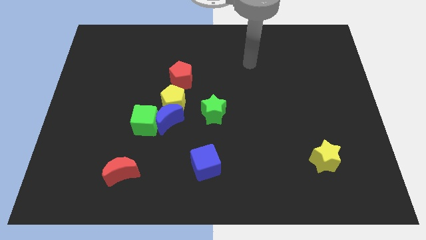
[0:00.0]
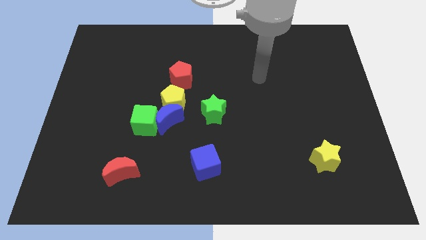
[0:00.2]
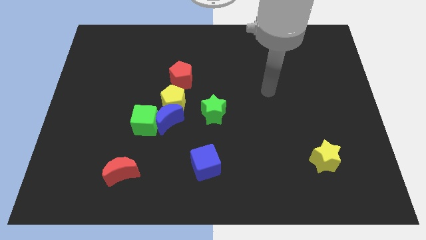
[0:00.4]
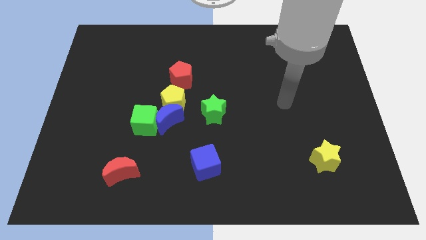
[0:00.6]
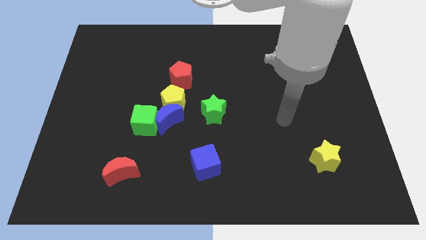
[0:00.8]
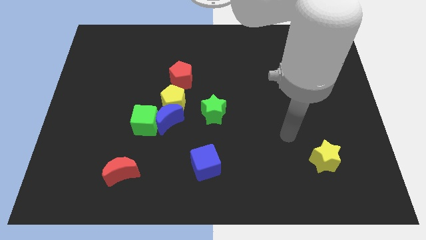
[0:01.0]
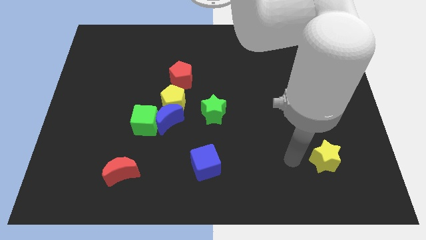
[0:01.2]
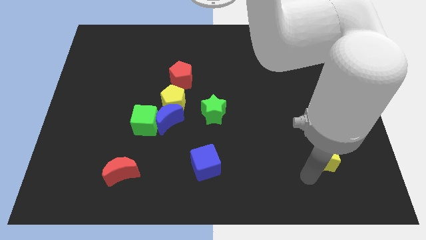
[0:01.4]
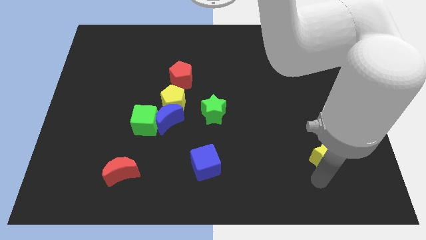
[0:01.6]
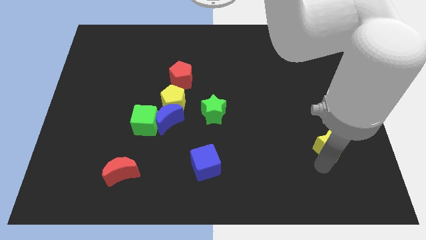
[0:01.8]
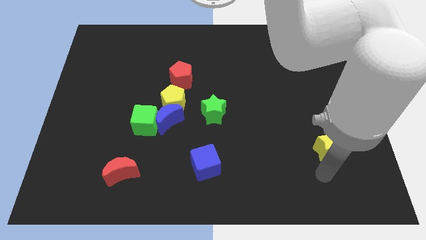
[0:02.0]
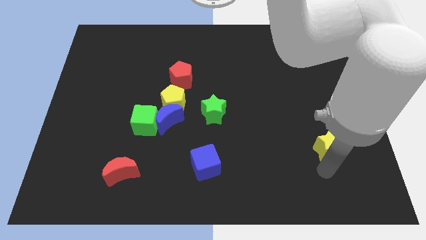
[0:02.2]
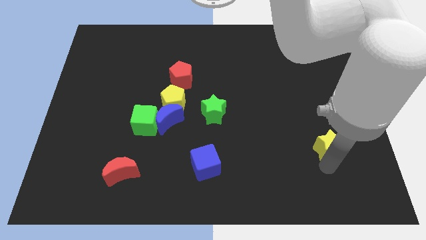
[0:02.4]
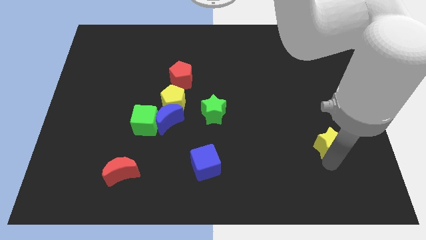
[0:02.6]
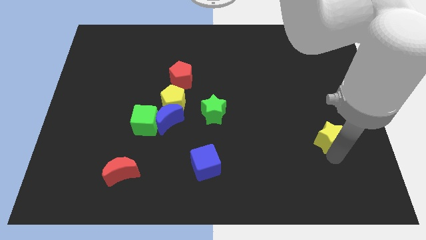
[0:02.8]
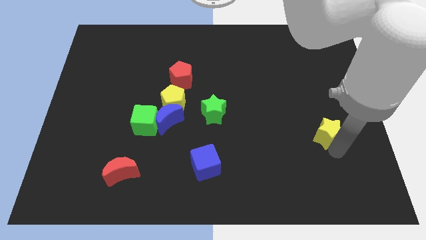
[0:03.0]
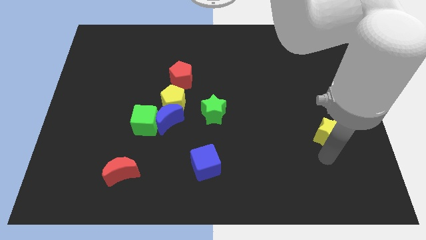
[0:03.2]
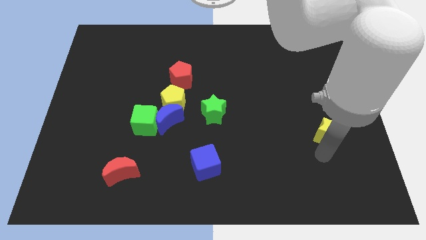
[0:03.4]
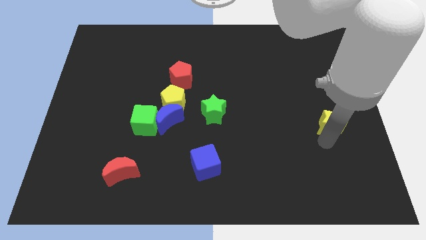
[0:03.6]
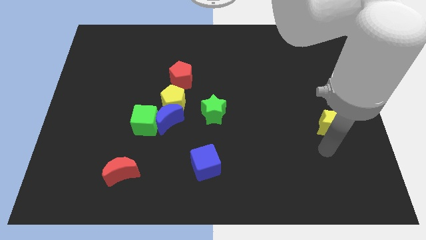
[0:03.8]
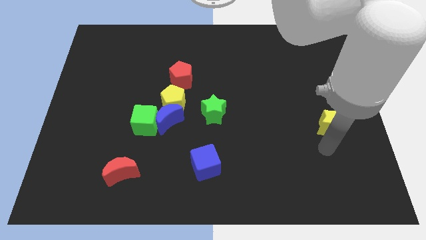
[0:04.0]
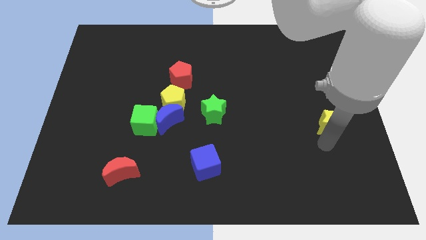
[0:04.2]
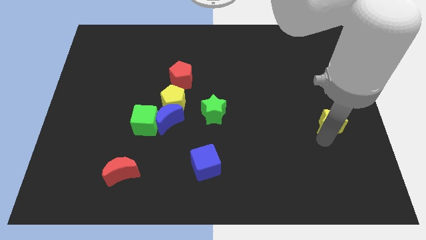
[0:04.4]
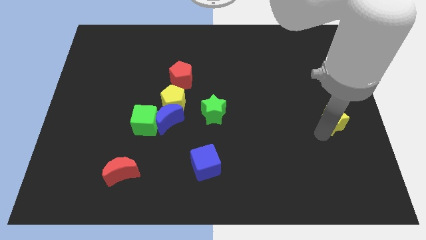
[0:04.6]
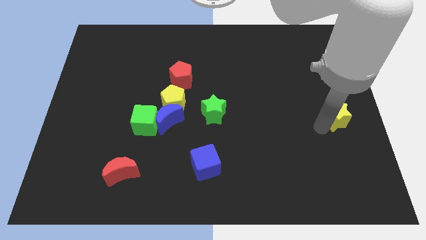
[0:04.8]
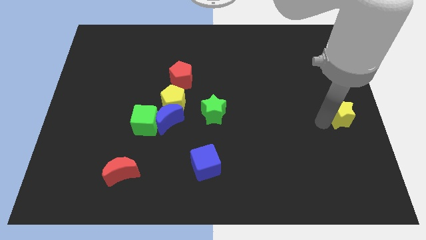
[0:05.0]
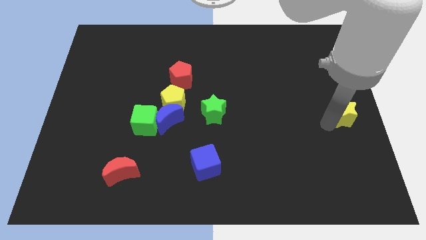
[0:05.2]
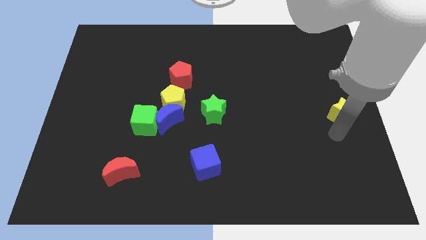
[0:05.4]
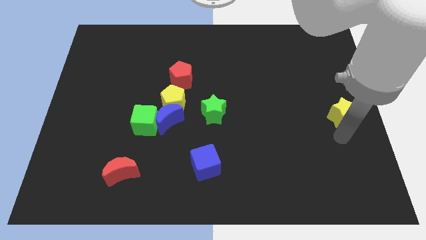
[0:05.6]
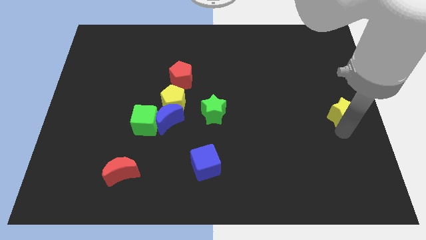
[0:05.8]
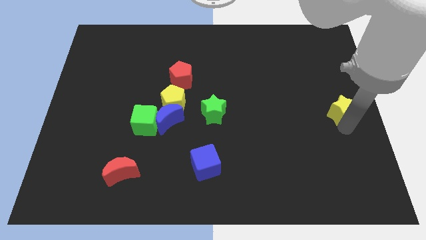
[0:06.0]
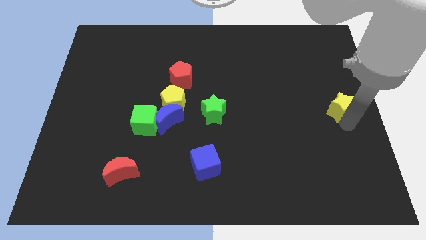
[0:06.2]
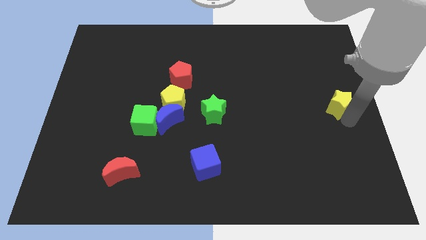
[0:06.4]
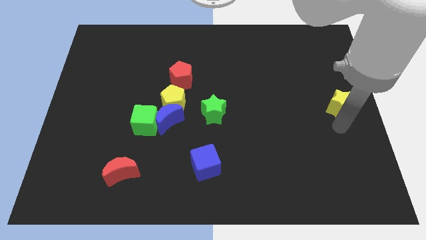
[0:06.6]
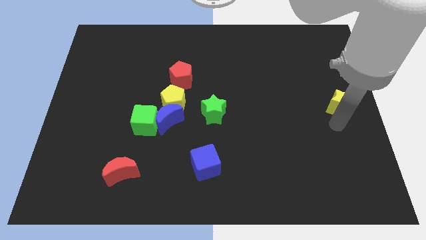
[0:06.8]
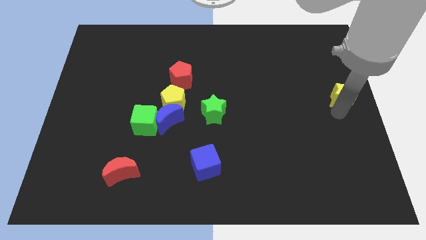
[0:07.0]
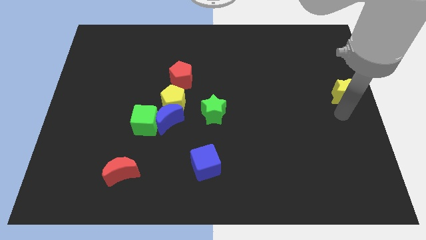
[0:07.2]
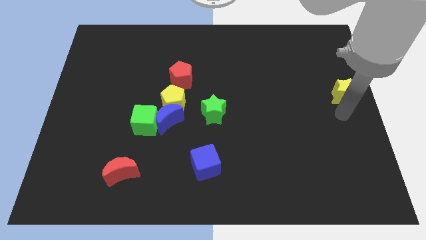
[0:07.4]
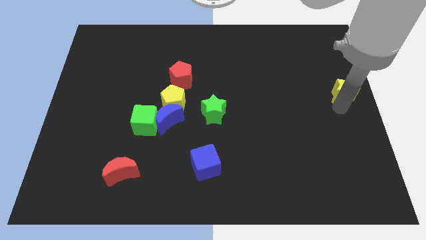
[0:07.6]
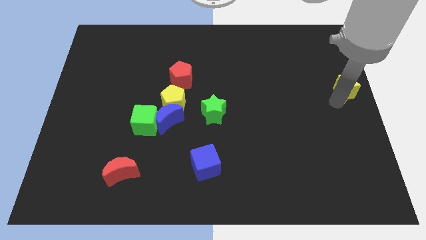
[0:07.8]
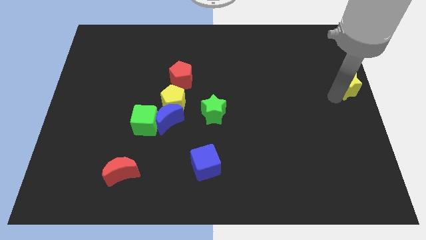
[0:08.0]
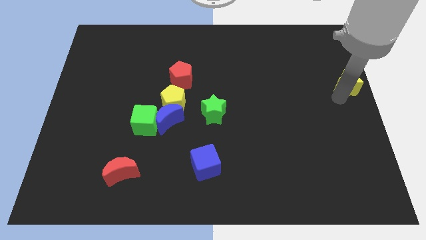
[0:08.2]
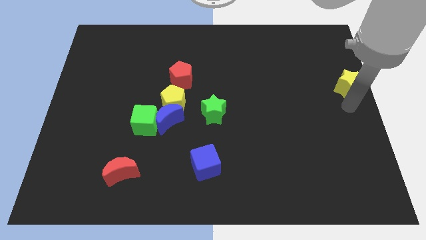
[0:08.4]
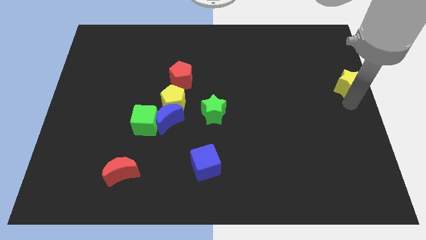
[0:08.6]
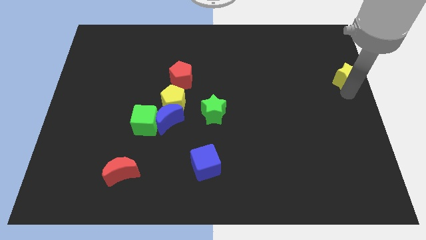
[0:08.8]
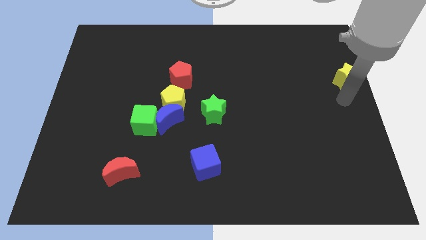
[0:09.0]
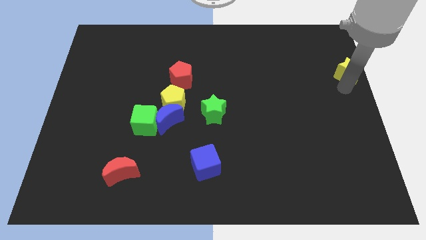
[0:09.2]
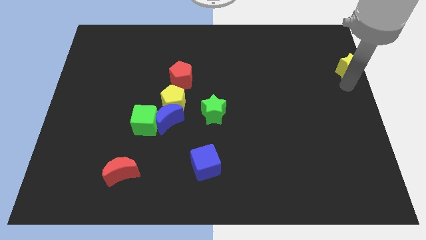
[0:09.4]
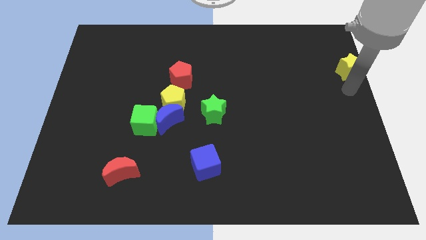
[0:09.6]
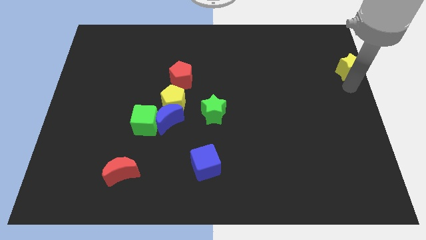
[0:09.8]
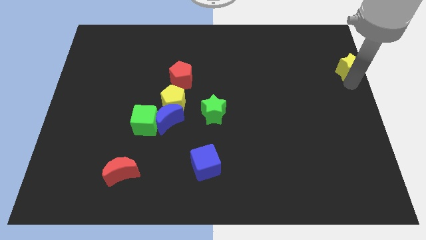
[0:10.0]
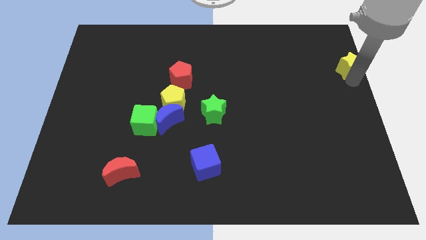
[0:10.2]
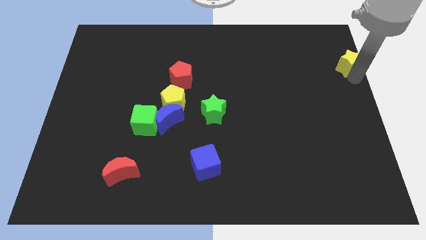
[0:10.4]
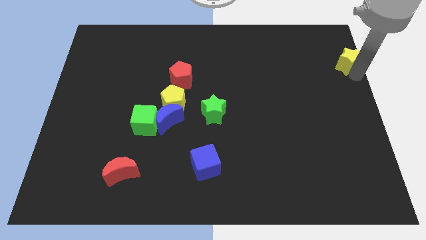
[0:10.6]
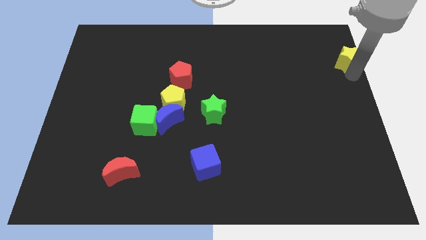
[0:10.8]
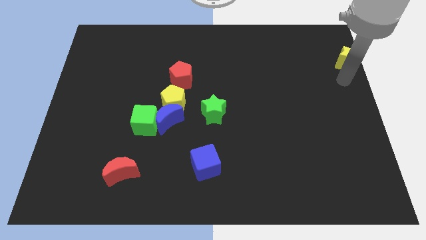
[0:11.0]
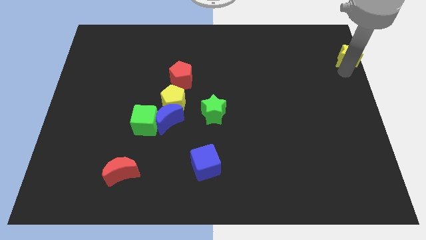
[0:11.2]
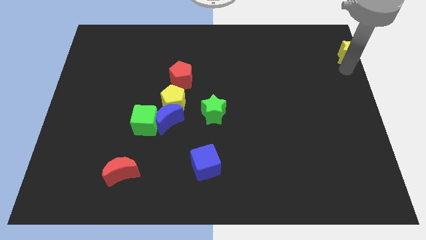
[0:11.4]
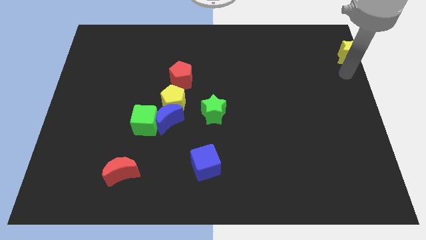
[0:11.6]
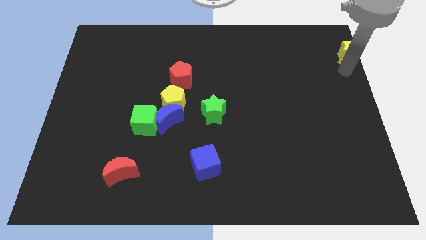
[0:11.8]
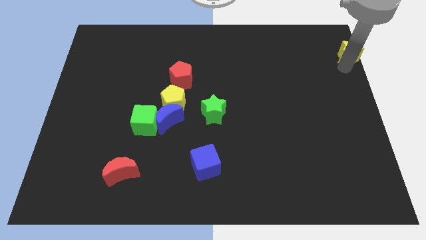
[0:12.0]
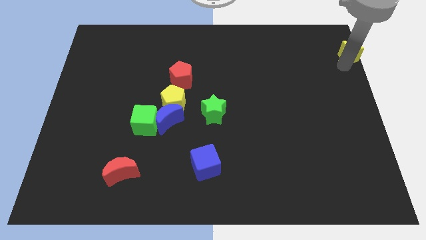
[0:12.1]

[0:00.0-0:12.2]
slide the yellow star to the top right

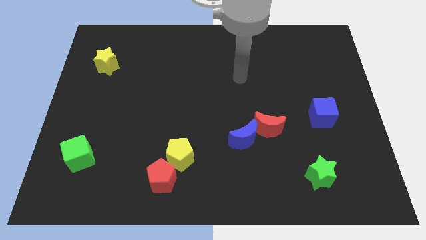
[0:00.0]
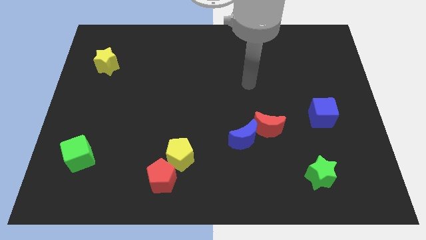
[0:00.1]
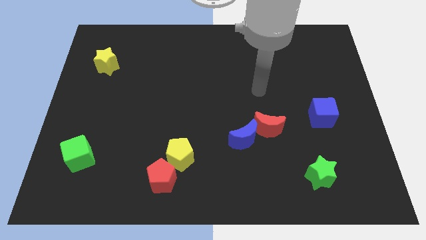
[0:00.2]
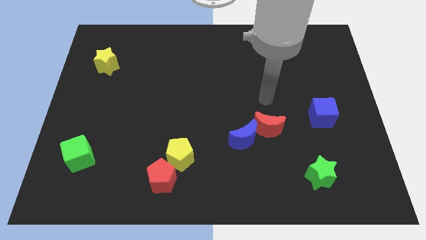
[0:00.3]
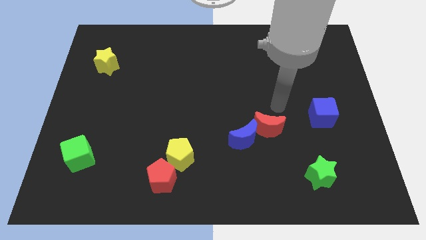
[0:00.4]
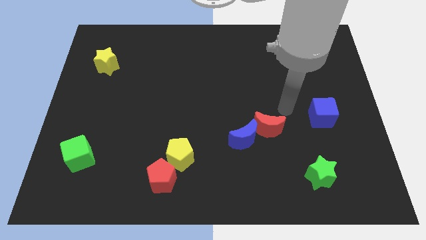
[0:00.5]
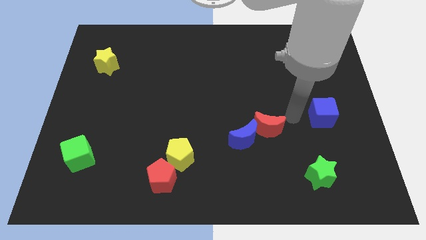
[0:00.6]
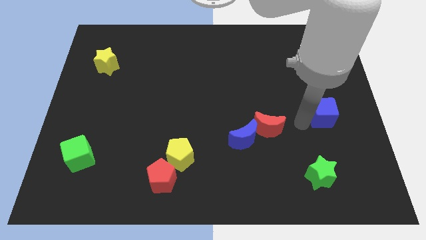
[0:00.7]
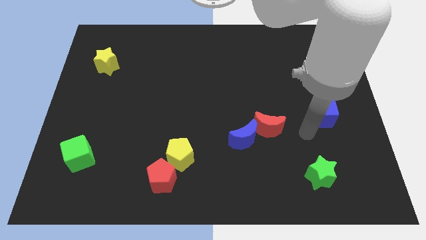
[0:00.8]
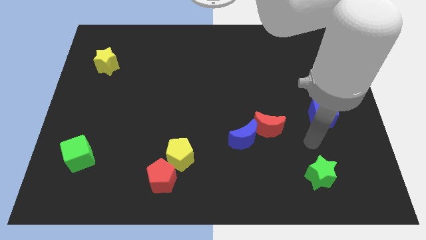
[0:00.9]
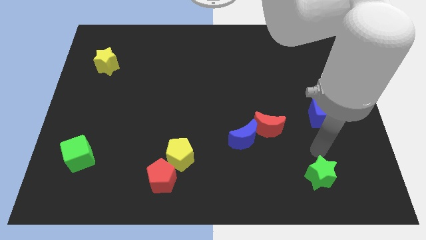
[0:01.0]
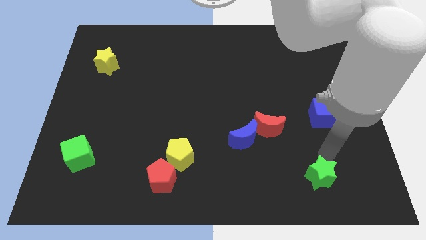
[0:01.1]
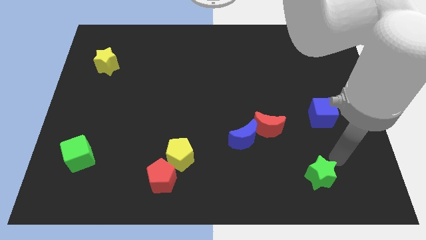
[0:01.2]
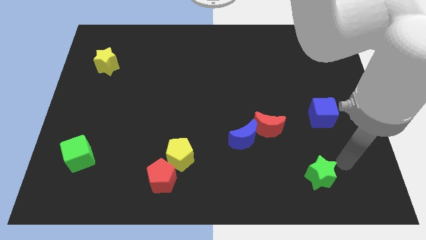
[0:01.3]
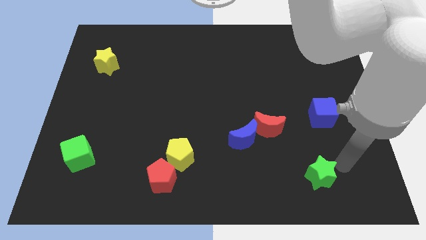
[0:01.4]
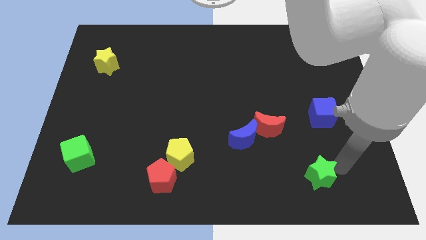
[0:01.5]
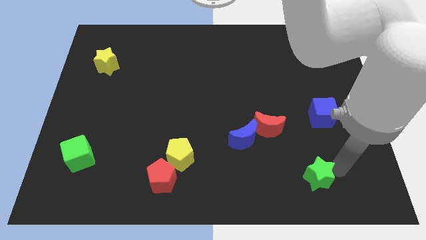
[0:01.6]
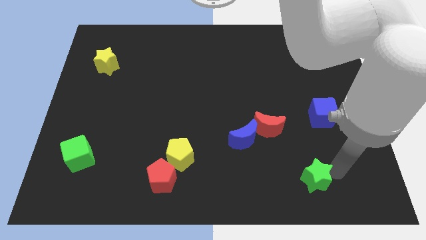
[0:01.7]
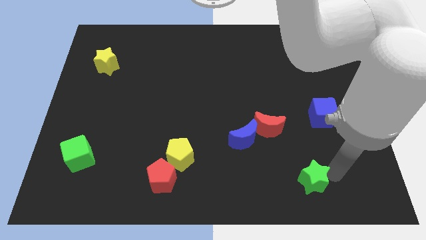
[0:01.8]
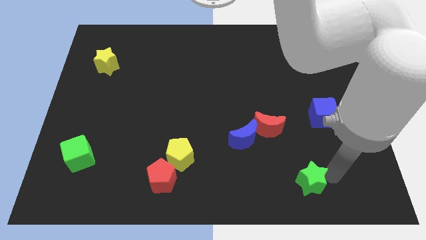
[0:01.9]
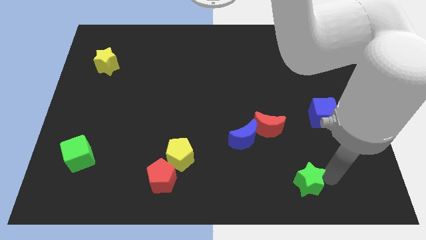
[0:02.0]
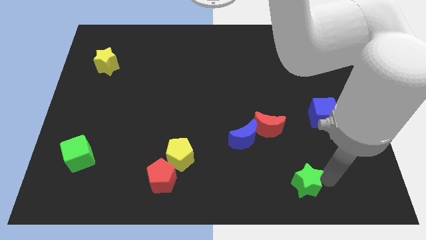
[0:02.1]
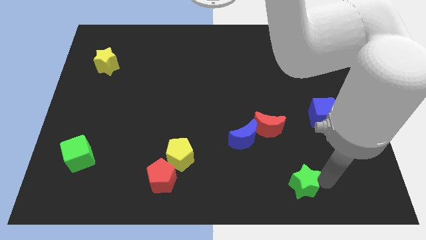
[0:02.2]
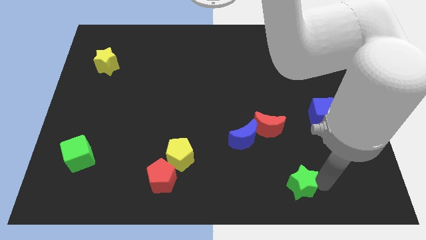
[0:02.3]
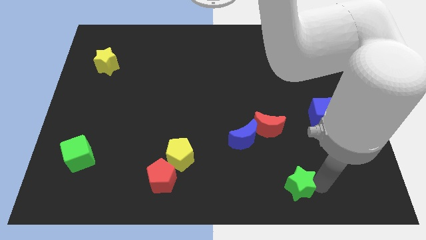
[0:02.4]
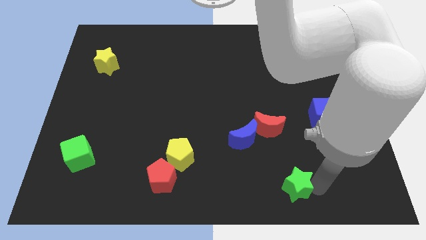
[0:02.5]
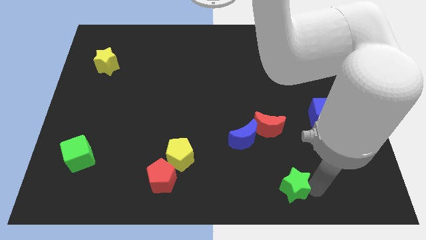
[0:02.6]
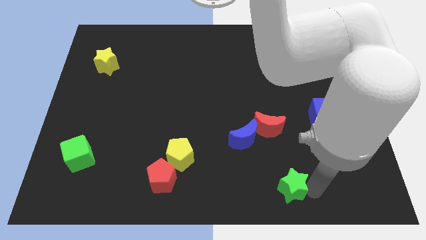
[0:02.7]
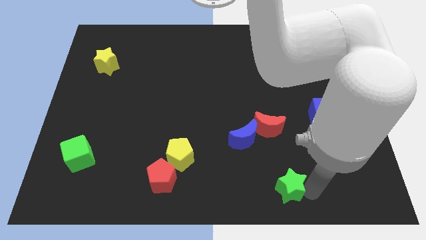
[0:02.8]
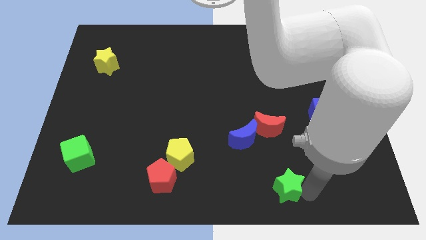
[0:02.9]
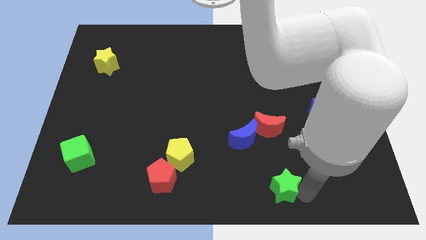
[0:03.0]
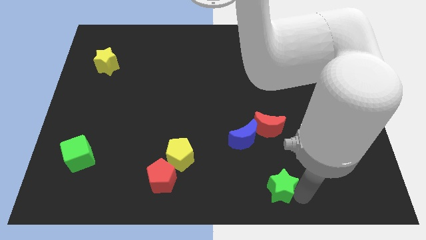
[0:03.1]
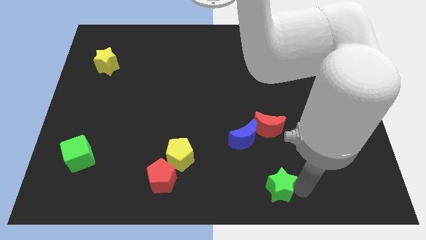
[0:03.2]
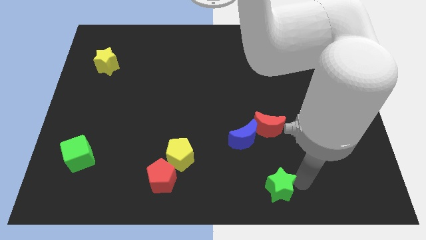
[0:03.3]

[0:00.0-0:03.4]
slide the green star to the bottom
